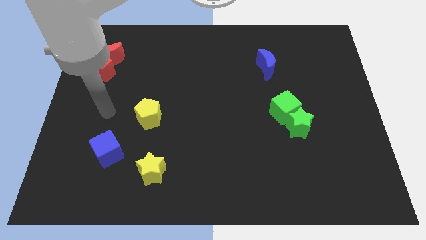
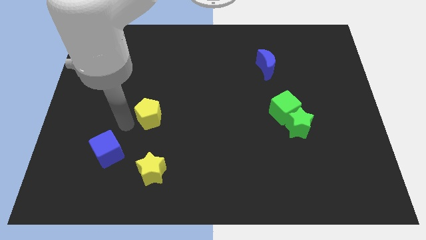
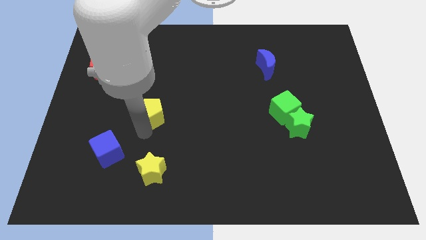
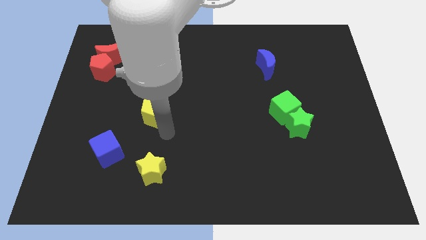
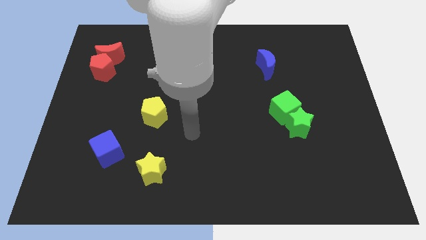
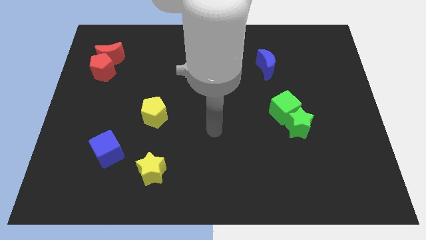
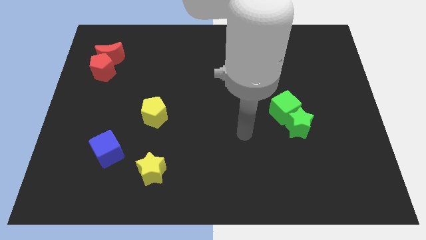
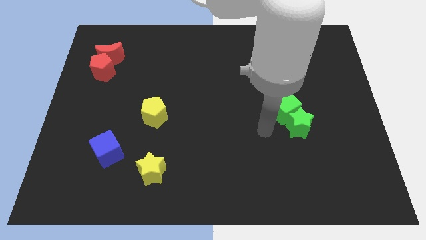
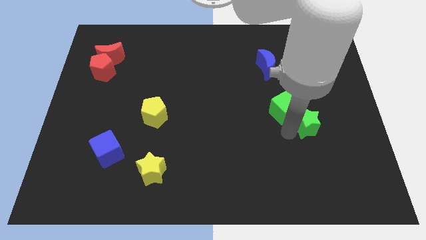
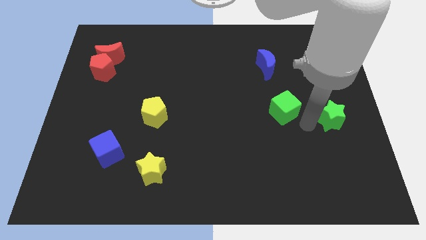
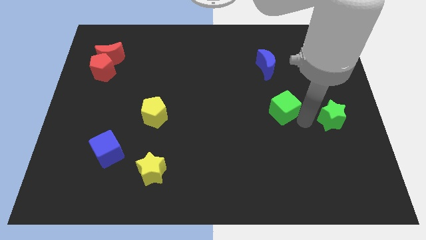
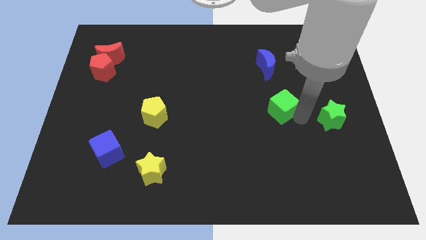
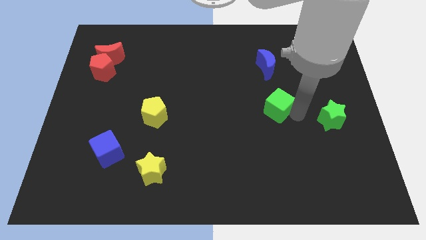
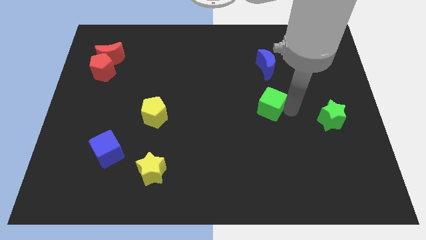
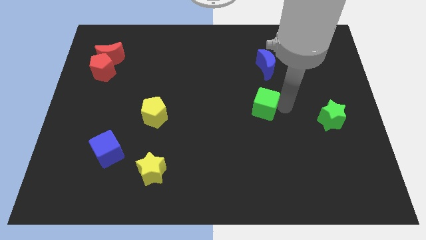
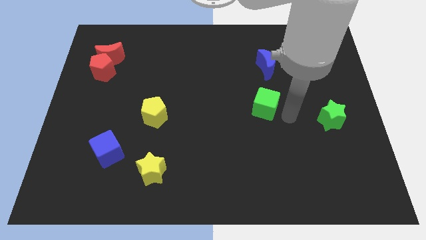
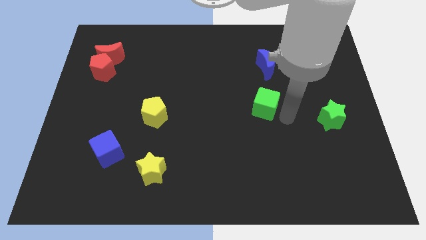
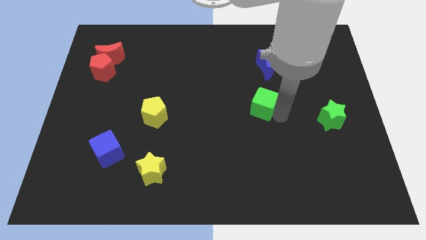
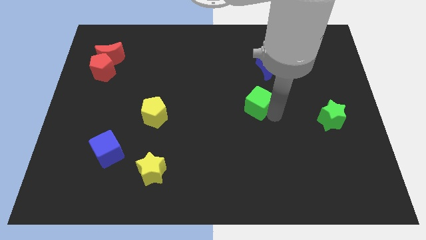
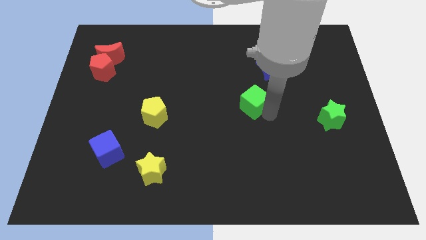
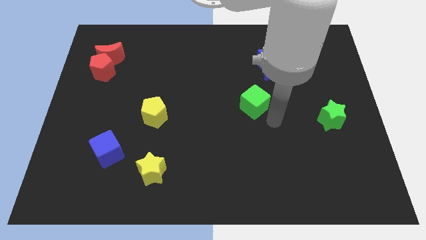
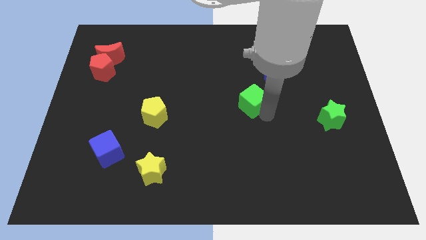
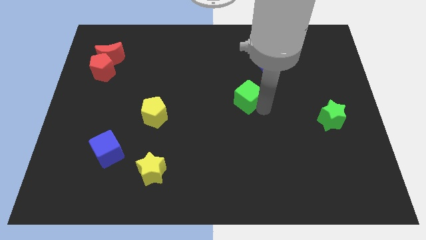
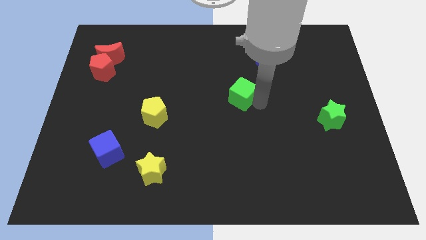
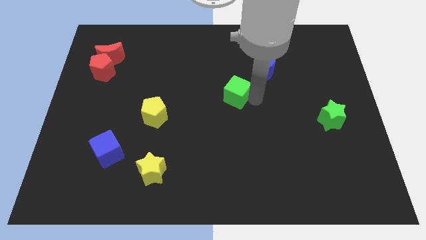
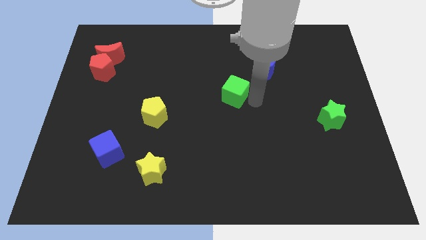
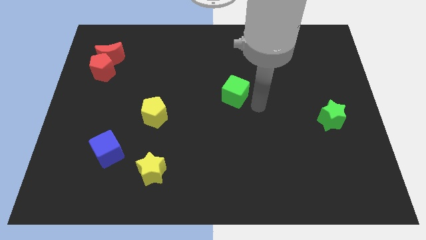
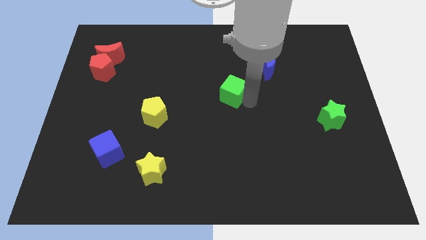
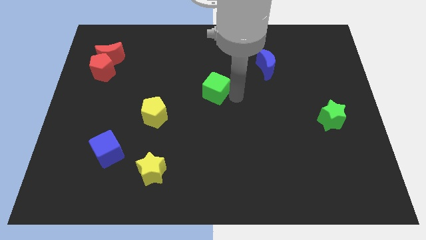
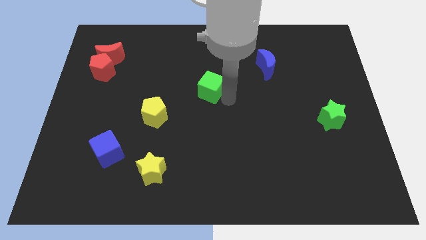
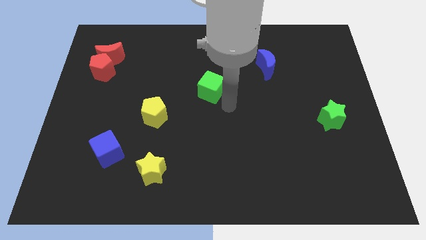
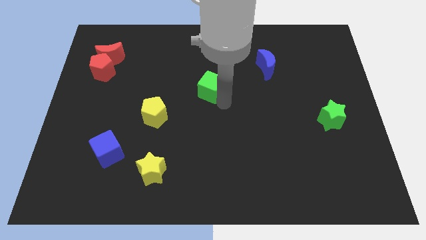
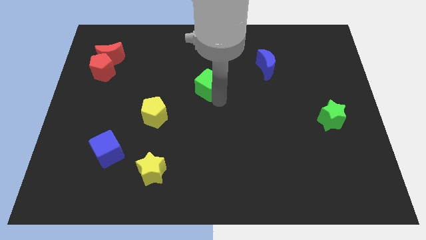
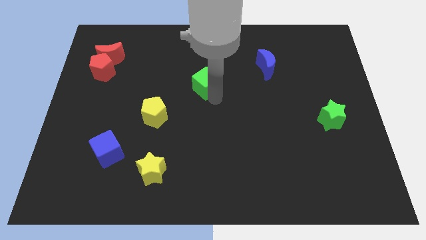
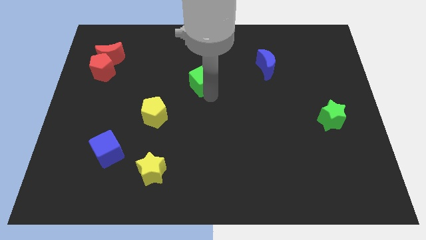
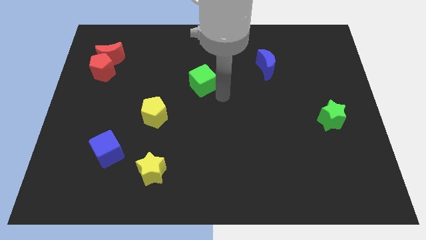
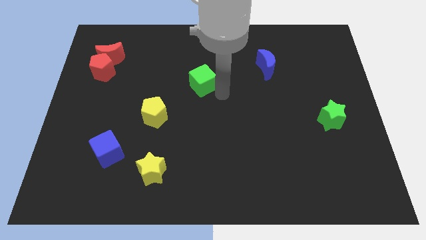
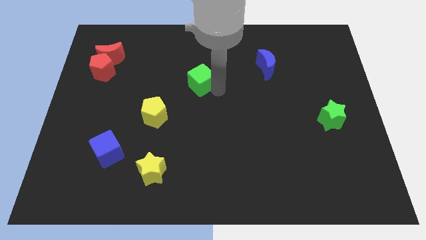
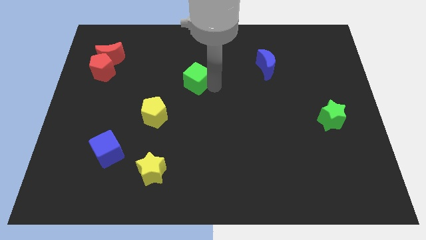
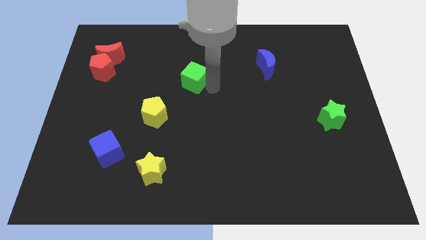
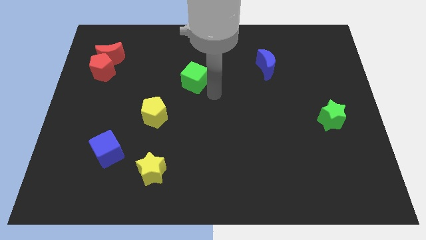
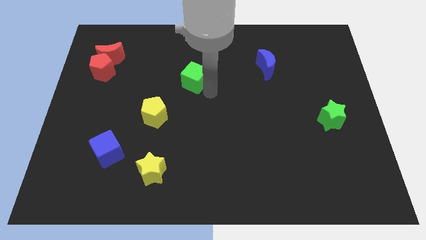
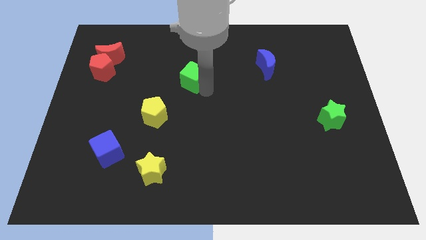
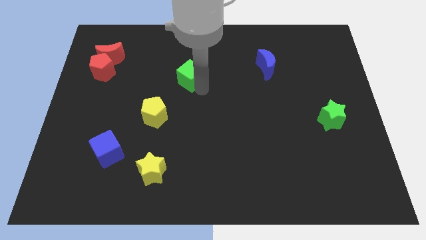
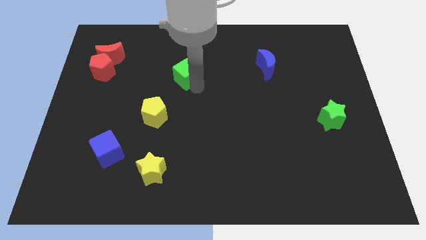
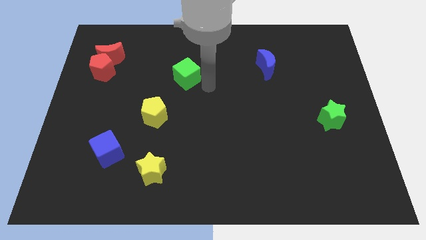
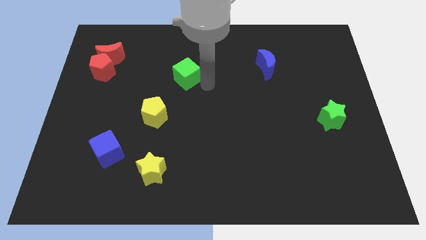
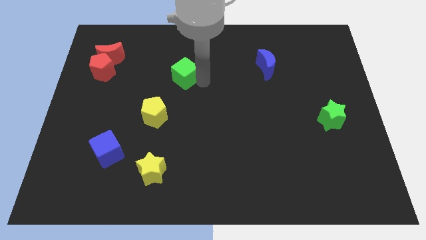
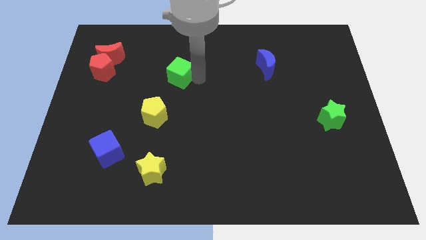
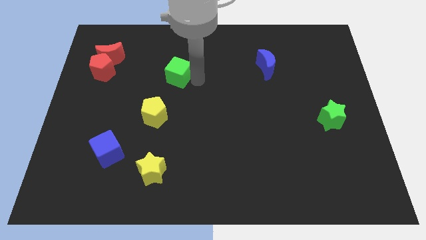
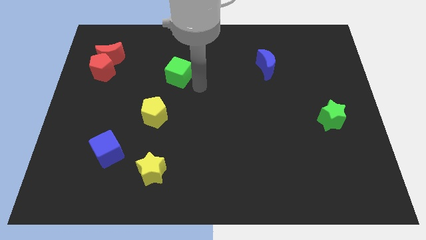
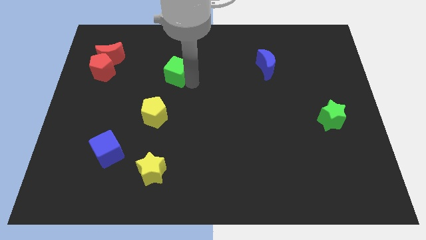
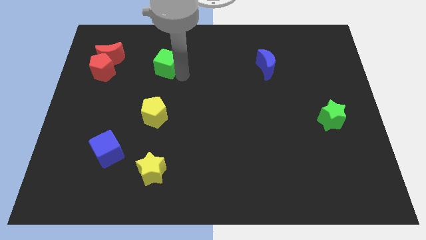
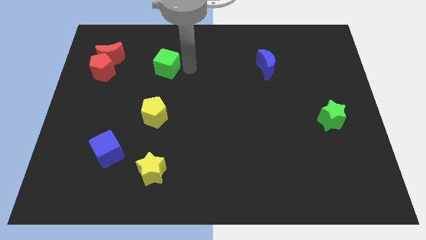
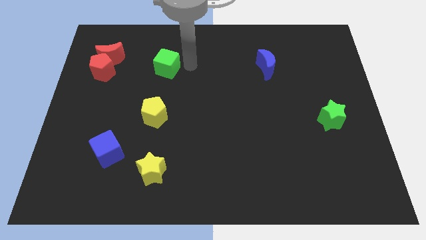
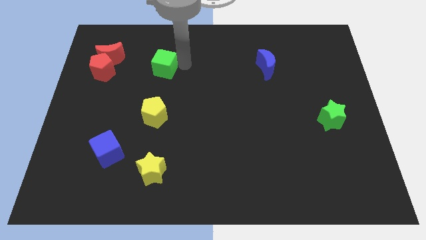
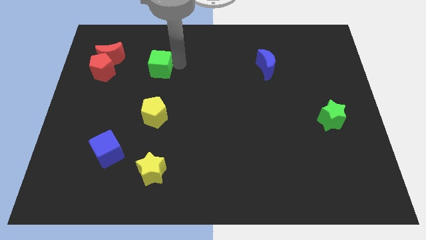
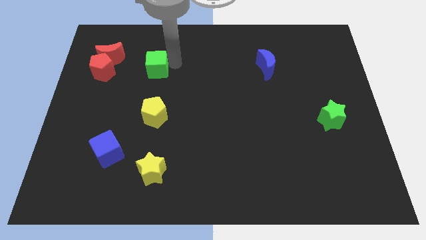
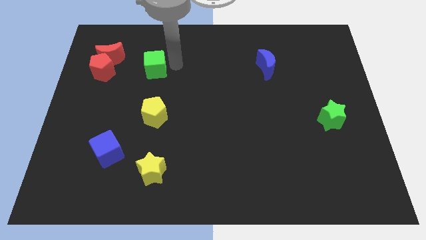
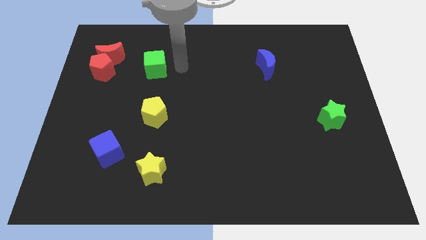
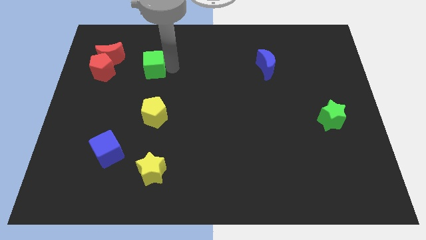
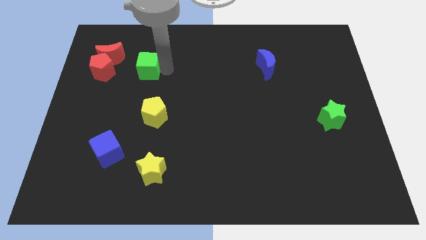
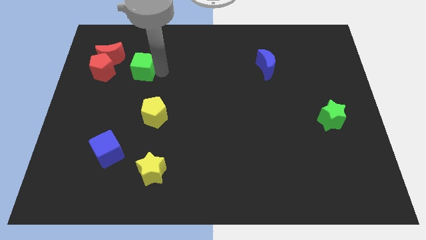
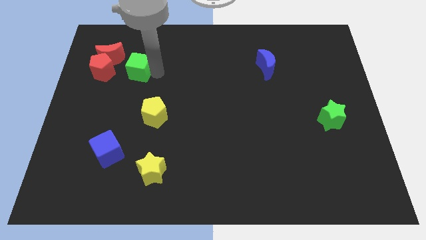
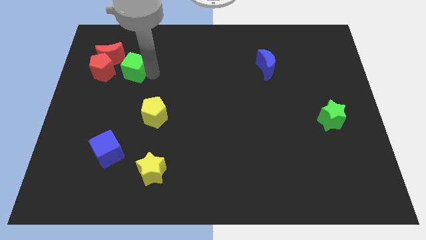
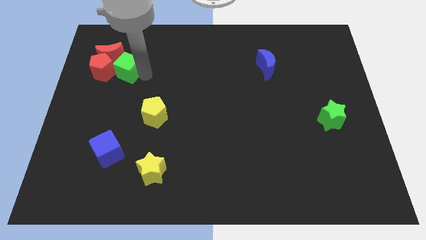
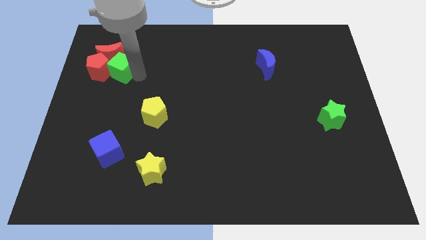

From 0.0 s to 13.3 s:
put the green cube close to the red moon

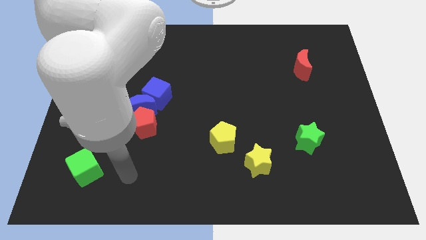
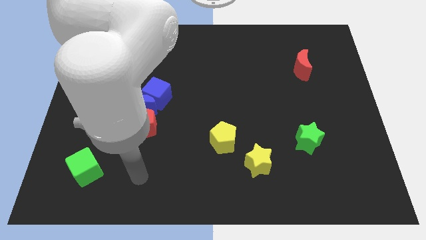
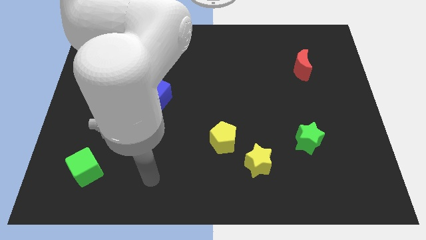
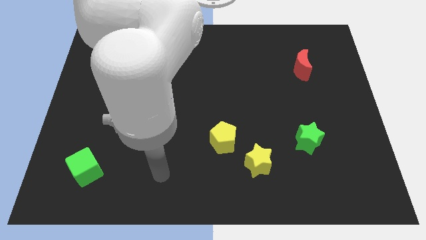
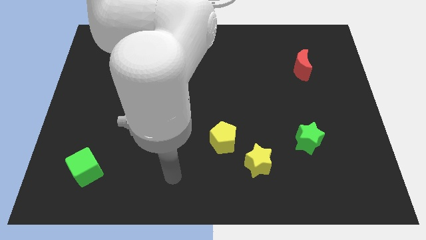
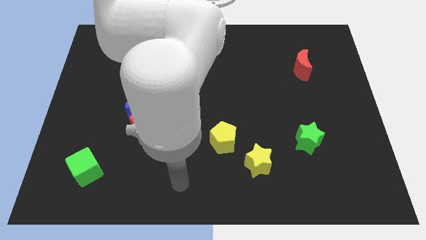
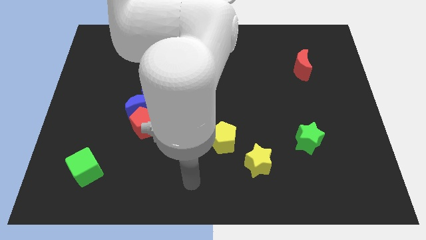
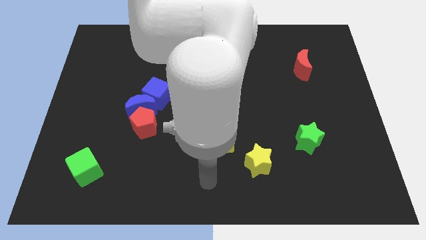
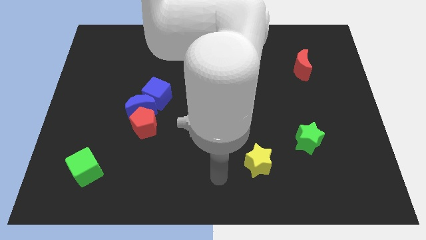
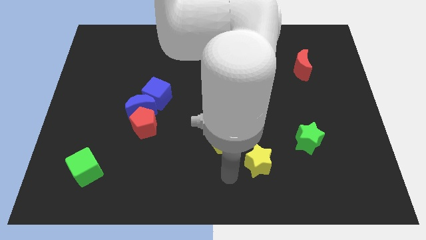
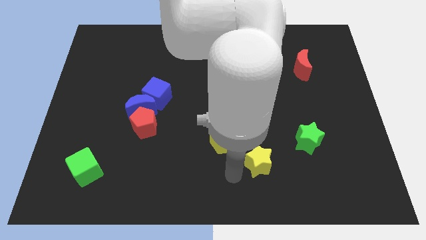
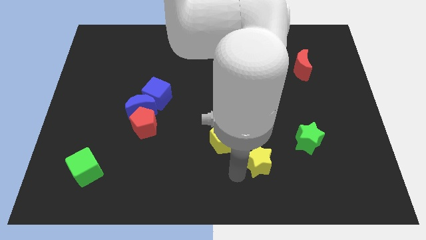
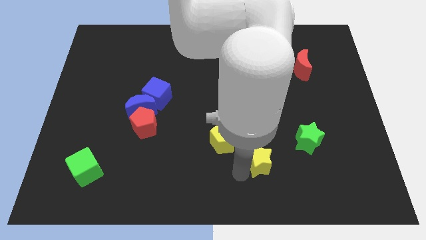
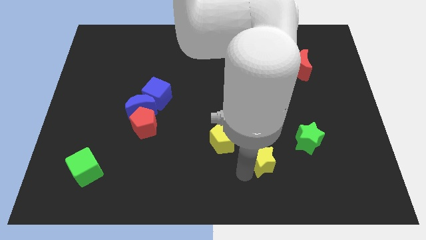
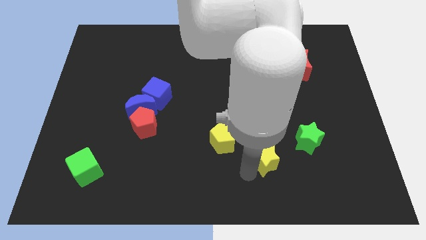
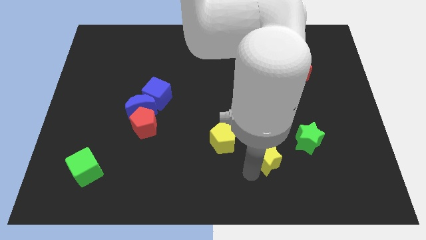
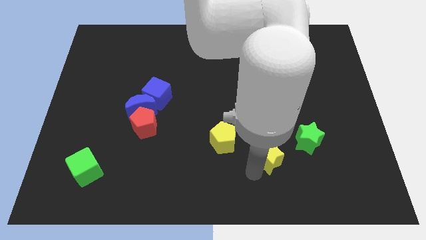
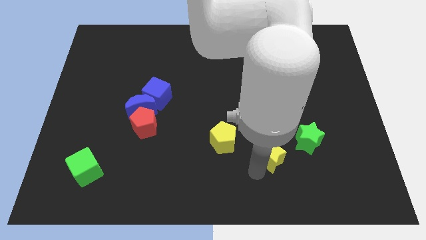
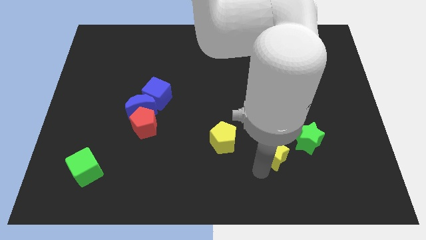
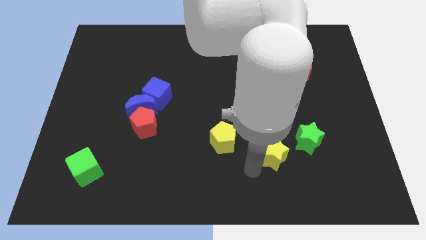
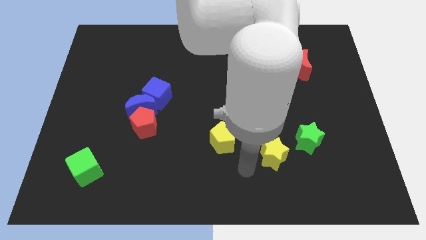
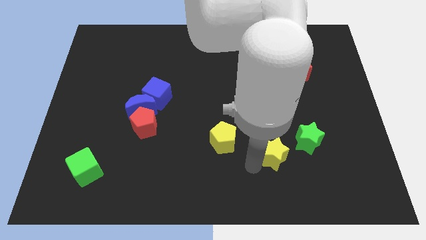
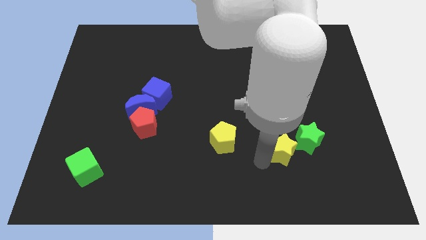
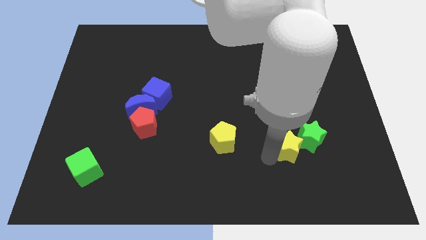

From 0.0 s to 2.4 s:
slide the yellow star close to the green star
